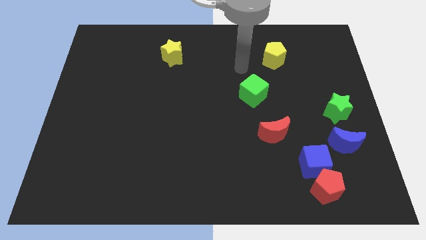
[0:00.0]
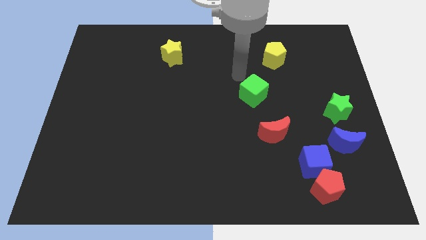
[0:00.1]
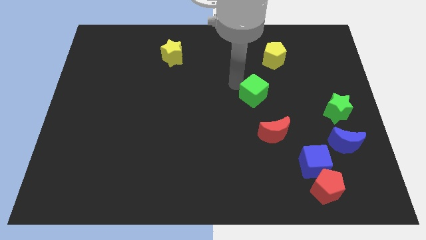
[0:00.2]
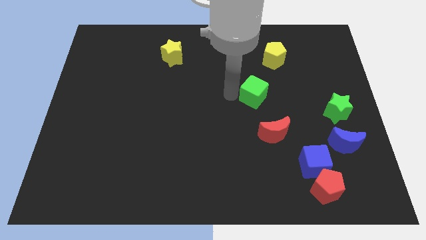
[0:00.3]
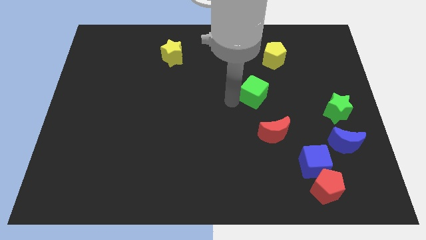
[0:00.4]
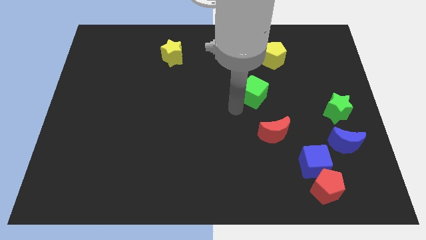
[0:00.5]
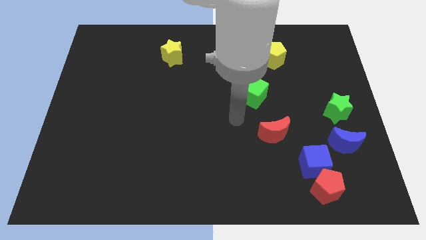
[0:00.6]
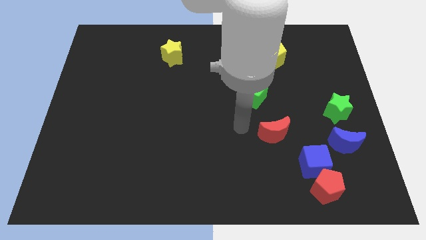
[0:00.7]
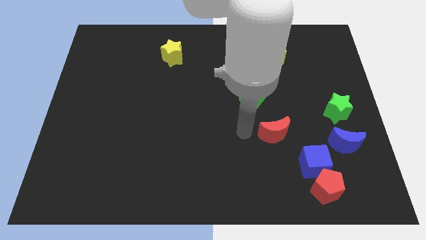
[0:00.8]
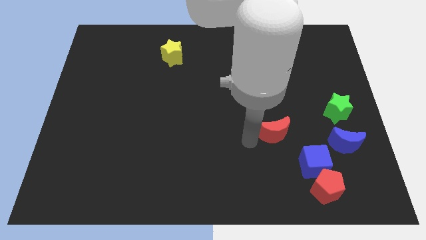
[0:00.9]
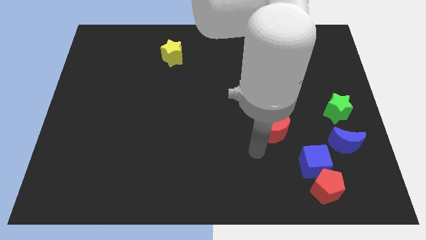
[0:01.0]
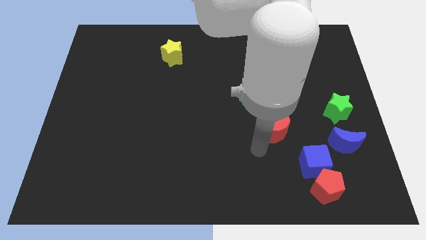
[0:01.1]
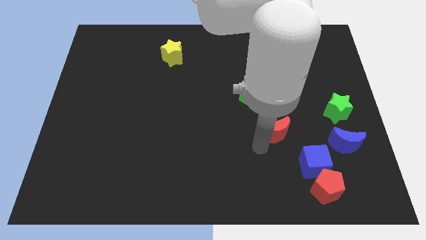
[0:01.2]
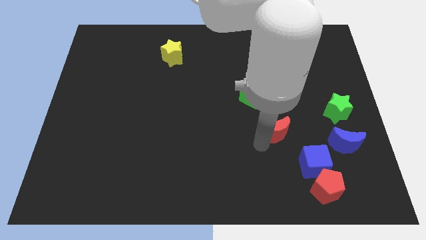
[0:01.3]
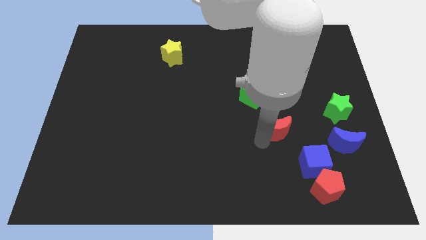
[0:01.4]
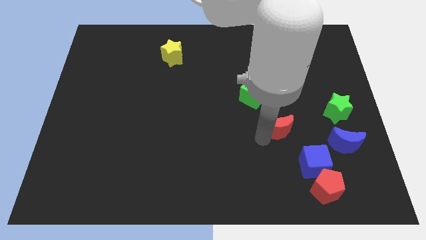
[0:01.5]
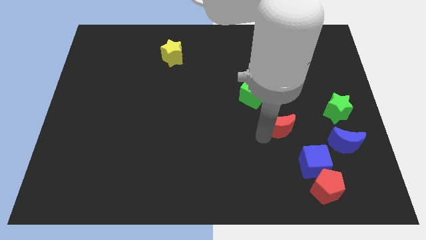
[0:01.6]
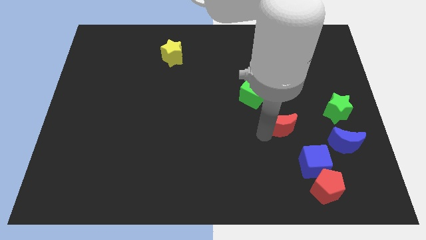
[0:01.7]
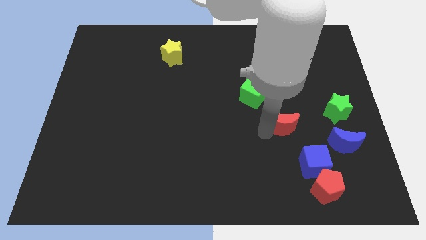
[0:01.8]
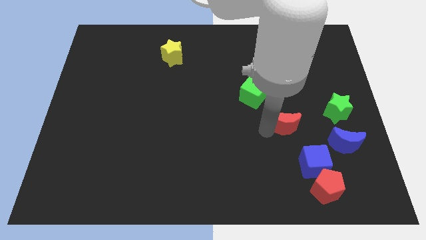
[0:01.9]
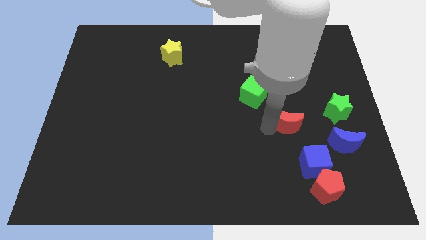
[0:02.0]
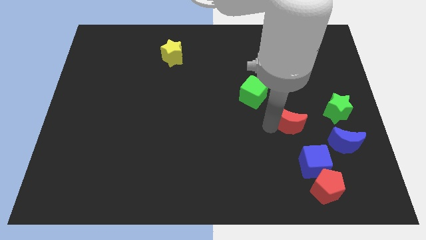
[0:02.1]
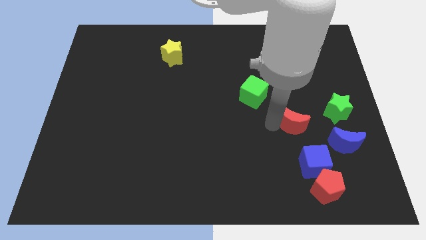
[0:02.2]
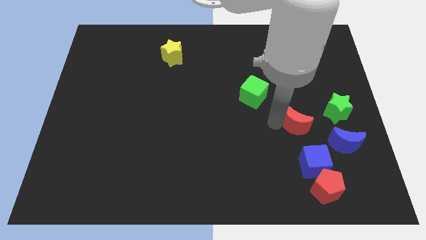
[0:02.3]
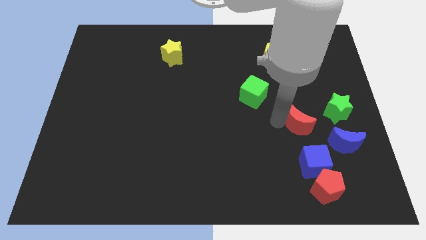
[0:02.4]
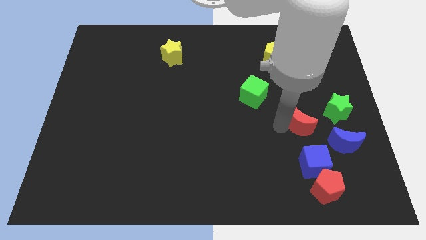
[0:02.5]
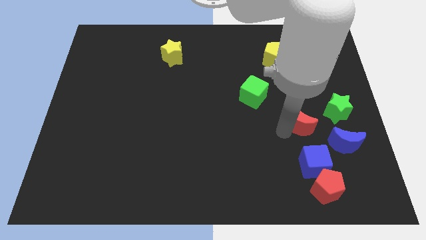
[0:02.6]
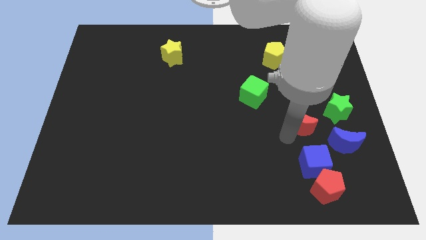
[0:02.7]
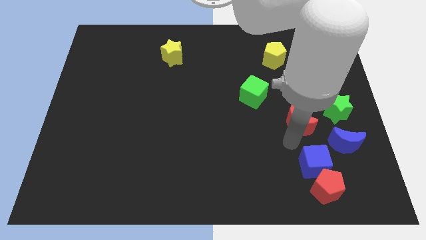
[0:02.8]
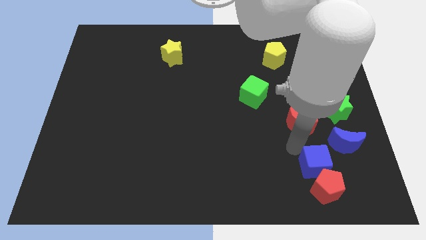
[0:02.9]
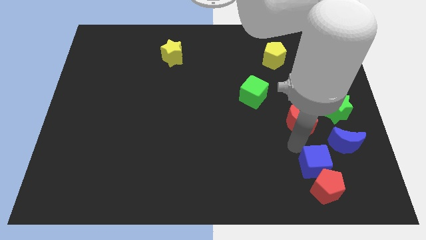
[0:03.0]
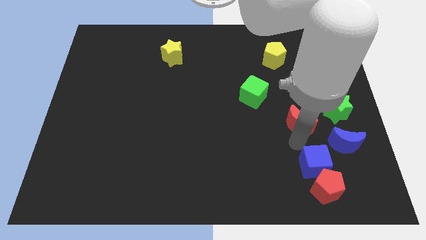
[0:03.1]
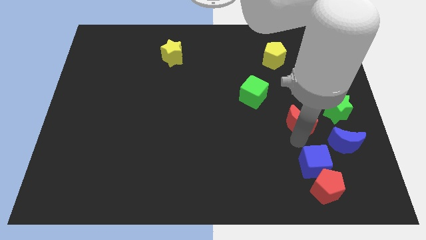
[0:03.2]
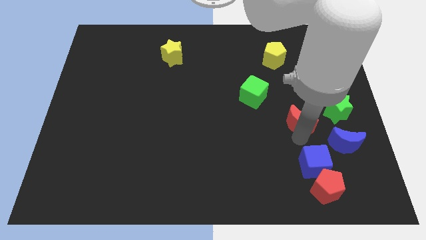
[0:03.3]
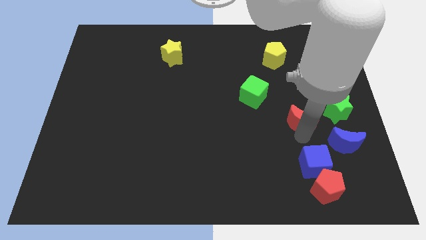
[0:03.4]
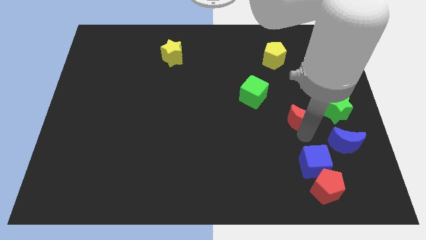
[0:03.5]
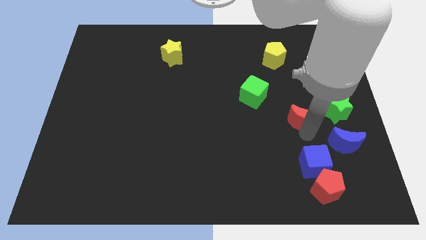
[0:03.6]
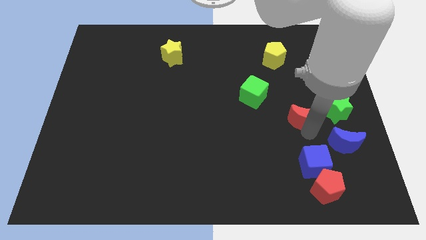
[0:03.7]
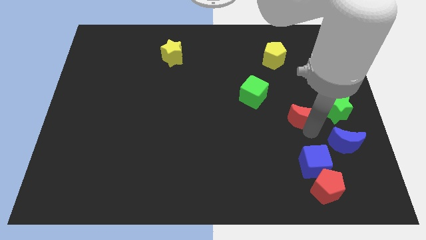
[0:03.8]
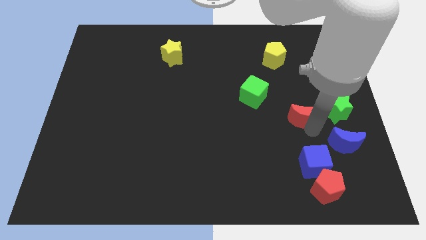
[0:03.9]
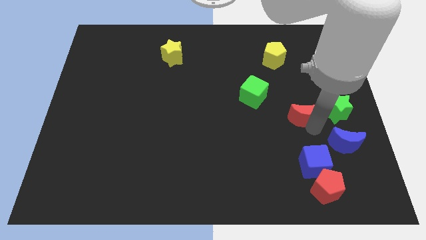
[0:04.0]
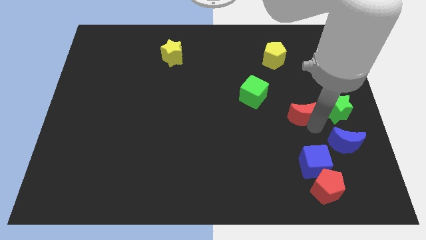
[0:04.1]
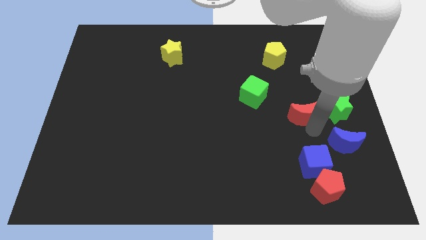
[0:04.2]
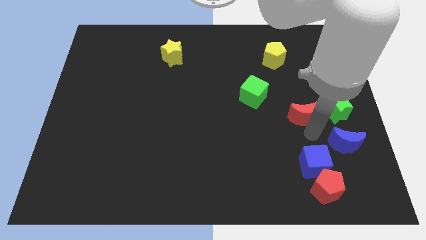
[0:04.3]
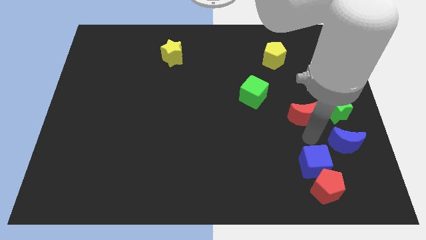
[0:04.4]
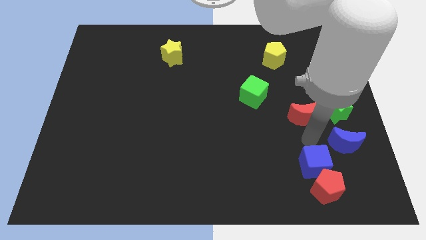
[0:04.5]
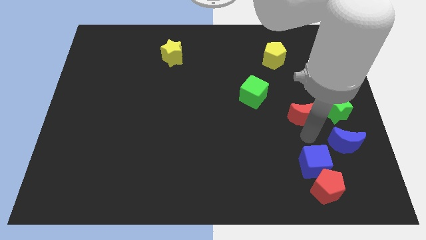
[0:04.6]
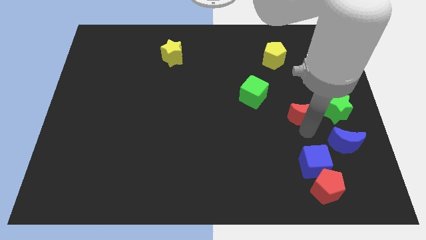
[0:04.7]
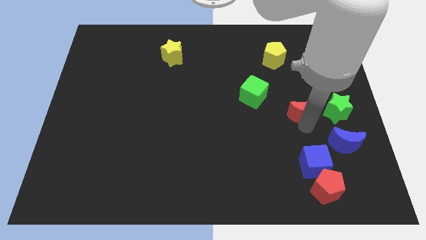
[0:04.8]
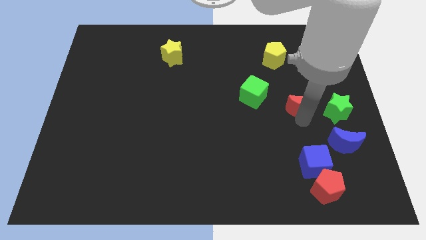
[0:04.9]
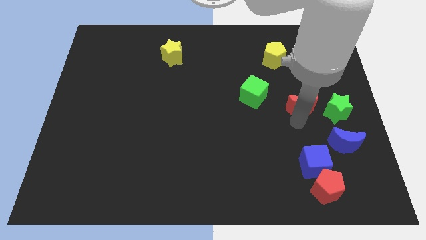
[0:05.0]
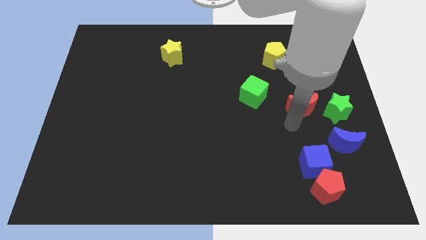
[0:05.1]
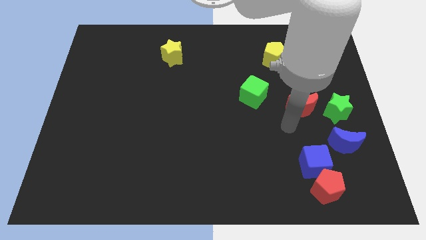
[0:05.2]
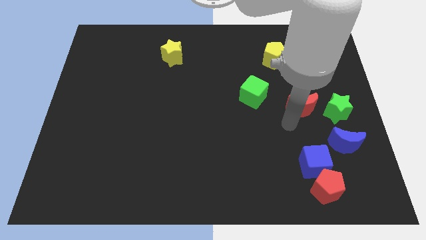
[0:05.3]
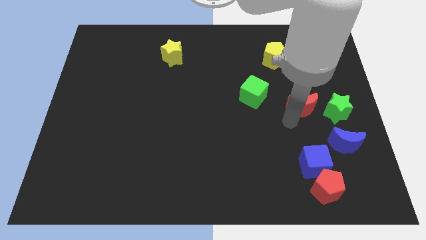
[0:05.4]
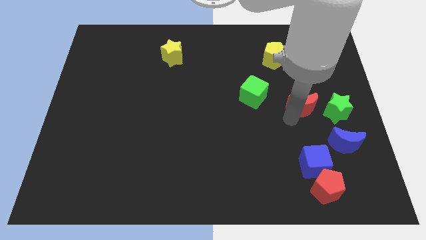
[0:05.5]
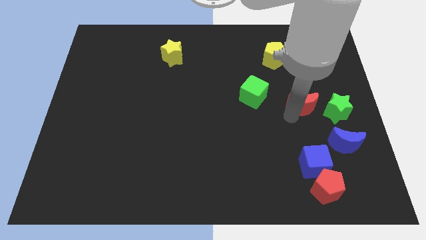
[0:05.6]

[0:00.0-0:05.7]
slide the red moon to the top left of the green star

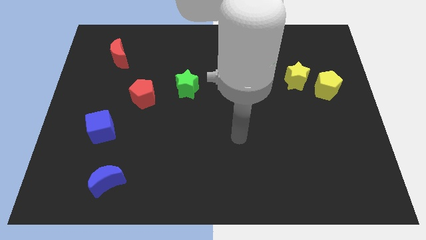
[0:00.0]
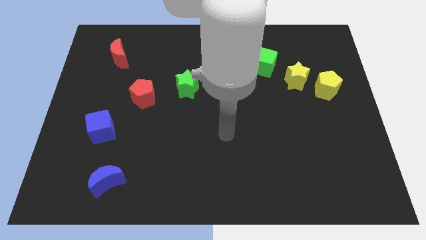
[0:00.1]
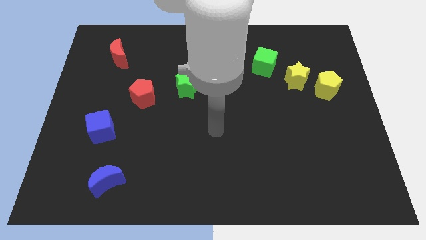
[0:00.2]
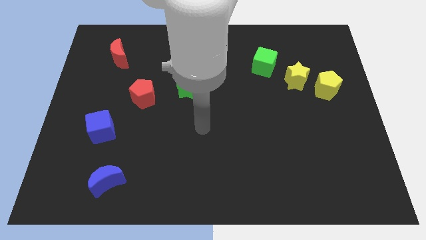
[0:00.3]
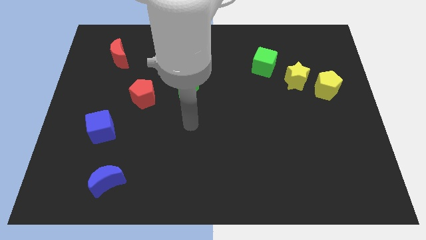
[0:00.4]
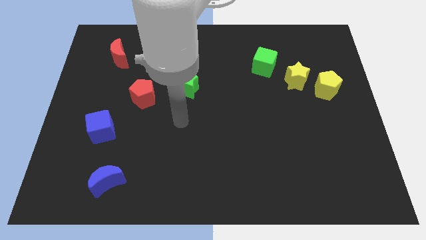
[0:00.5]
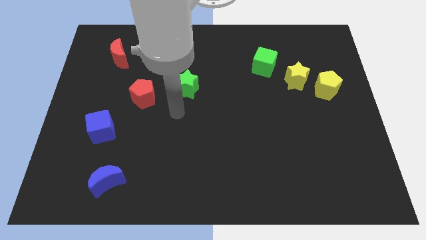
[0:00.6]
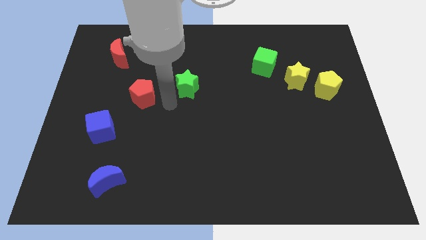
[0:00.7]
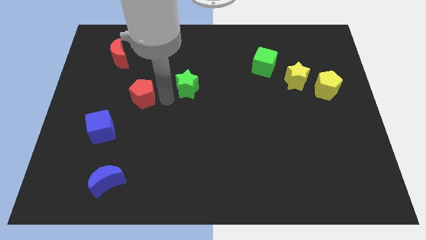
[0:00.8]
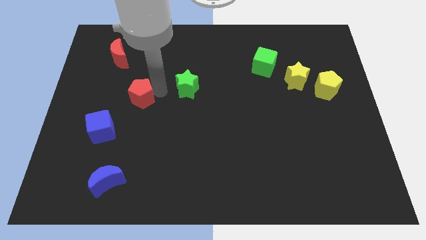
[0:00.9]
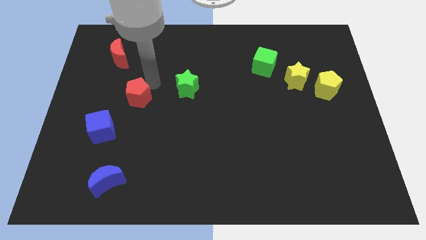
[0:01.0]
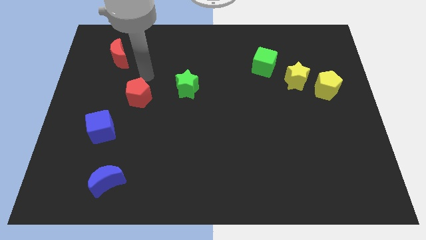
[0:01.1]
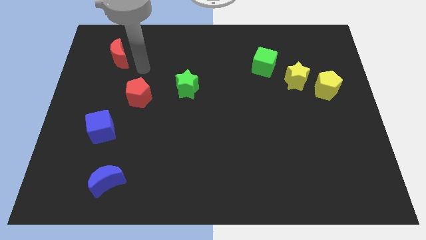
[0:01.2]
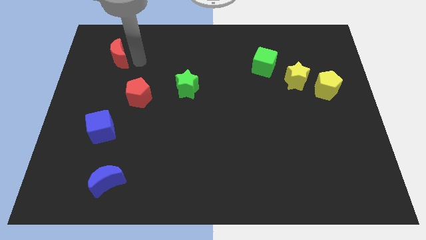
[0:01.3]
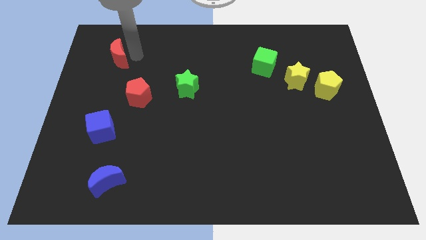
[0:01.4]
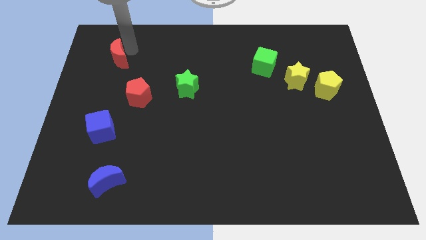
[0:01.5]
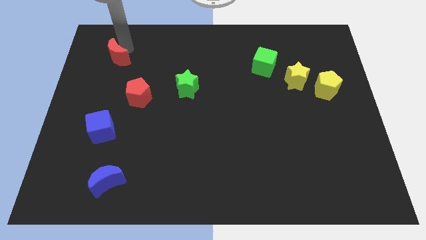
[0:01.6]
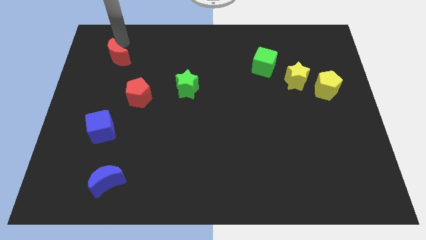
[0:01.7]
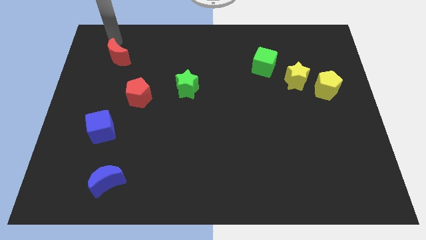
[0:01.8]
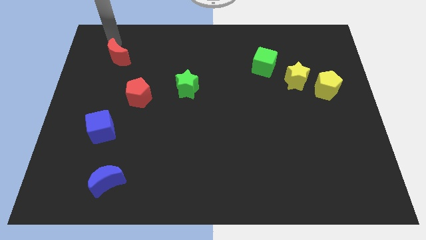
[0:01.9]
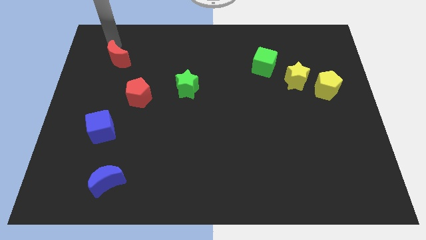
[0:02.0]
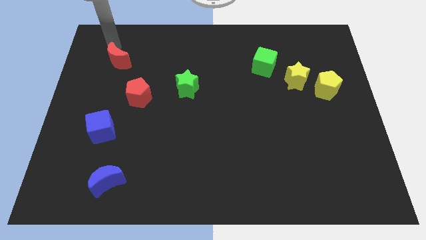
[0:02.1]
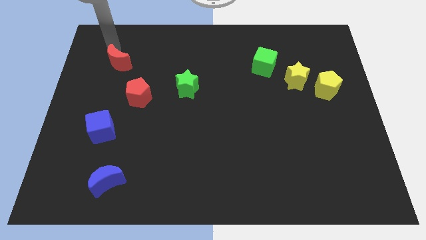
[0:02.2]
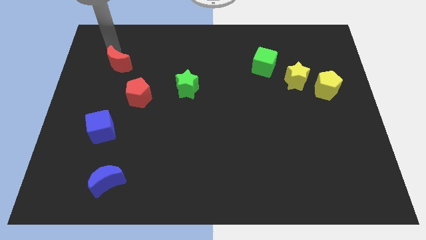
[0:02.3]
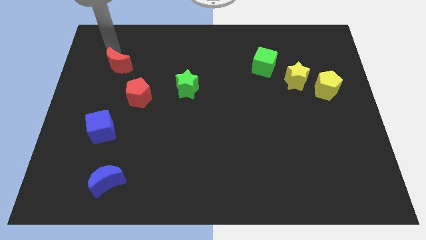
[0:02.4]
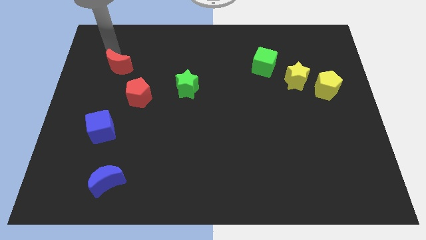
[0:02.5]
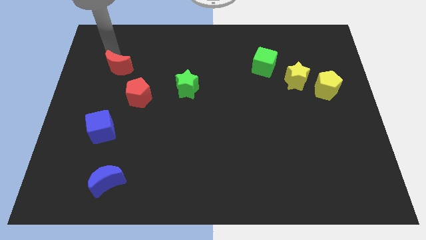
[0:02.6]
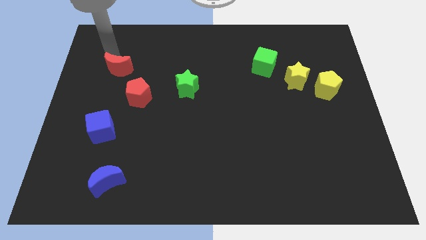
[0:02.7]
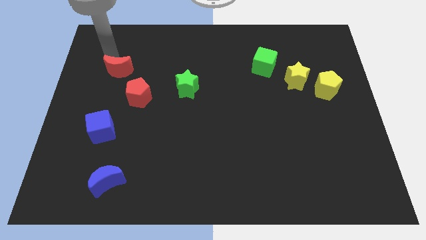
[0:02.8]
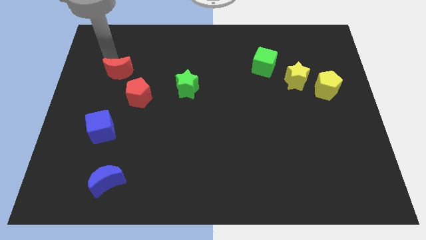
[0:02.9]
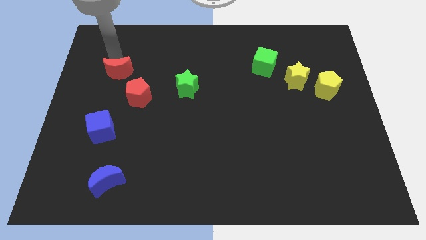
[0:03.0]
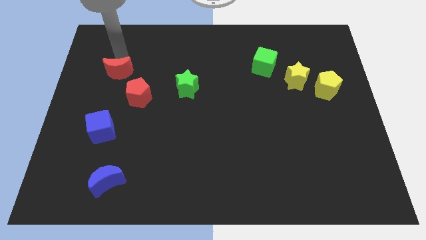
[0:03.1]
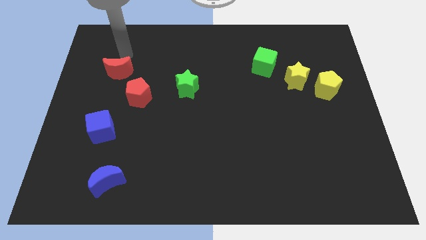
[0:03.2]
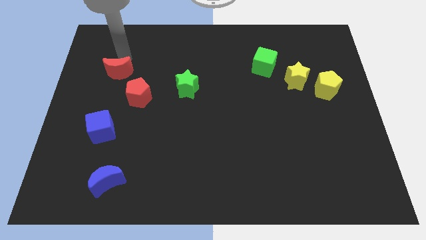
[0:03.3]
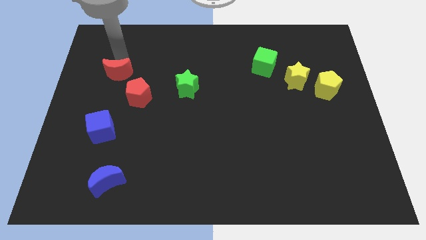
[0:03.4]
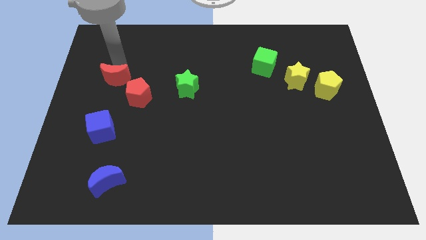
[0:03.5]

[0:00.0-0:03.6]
move the red moon above the blue cube
